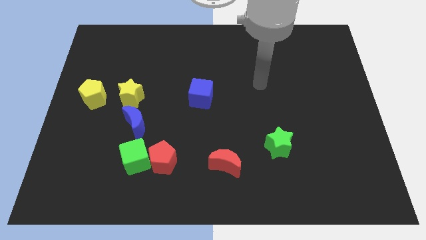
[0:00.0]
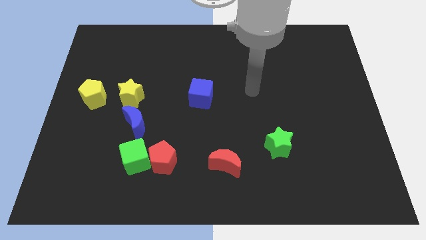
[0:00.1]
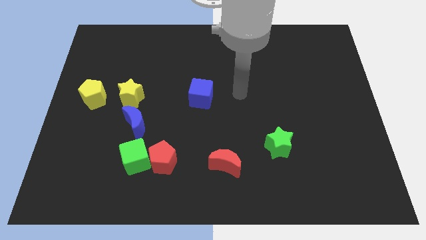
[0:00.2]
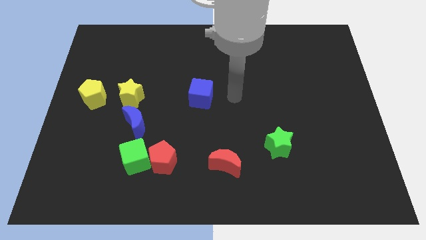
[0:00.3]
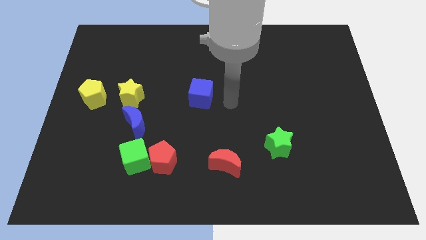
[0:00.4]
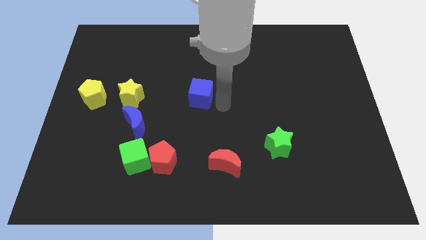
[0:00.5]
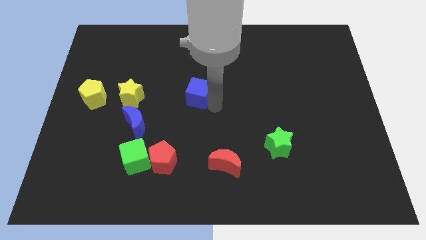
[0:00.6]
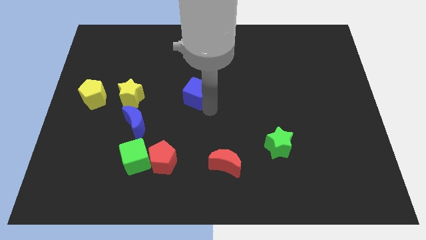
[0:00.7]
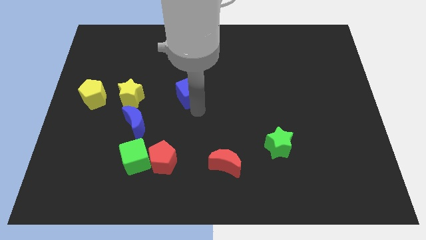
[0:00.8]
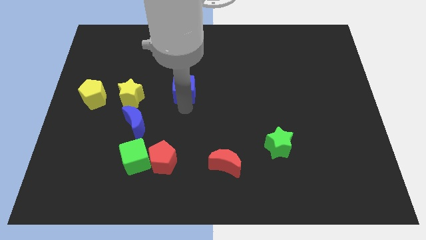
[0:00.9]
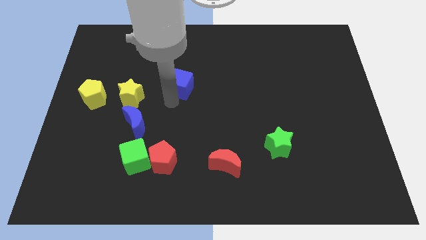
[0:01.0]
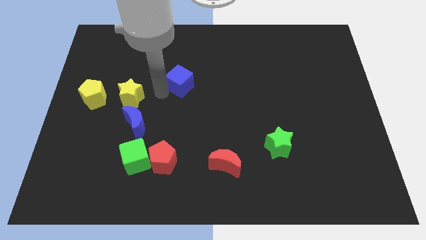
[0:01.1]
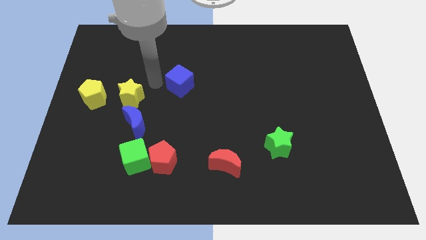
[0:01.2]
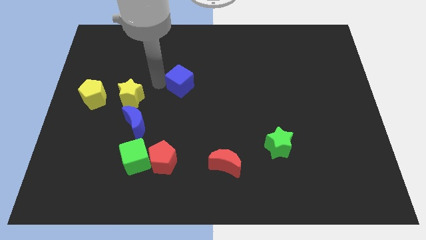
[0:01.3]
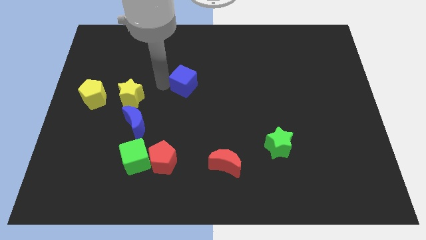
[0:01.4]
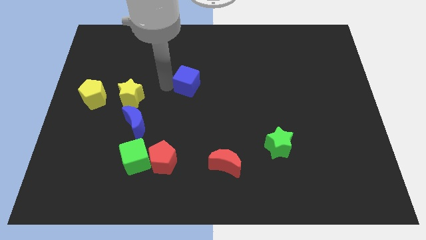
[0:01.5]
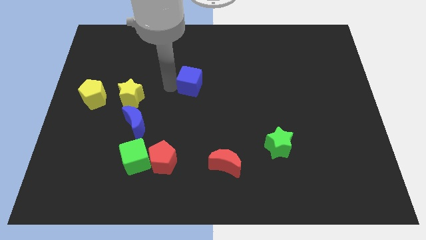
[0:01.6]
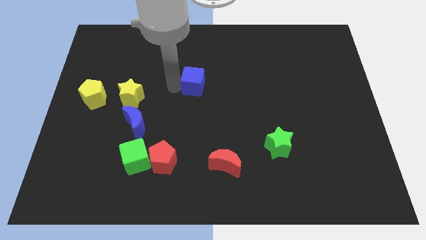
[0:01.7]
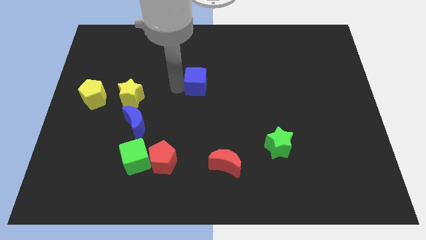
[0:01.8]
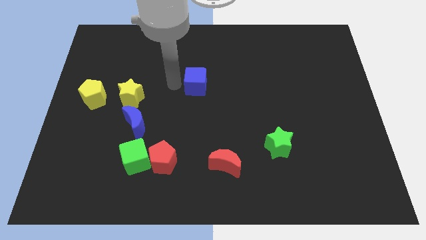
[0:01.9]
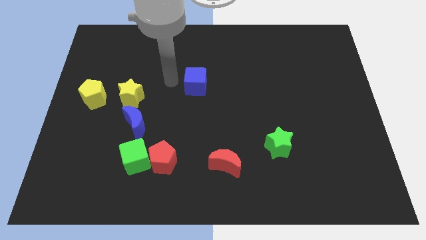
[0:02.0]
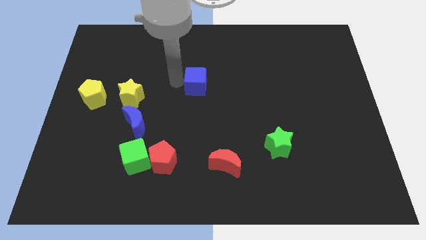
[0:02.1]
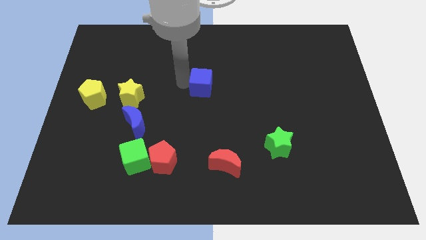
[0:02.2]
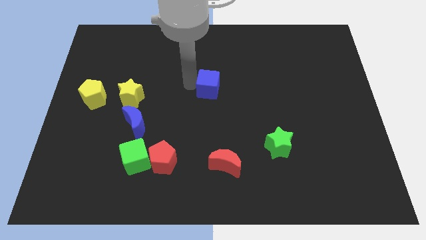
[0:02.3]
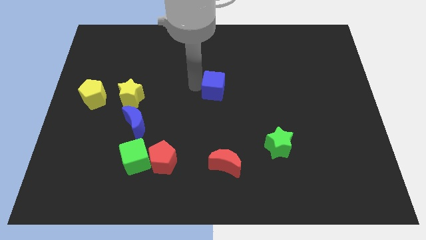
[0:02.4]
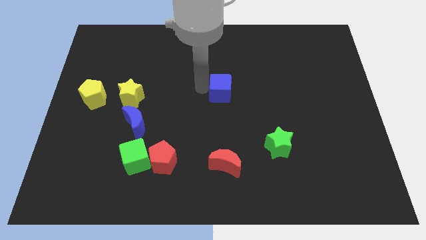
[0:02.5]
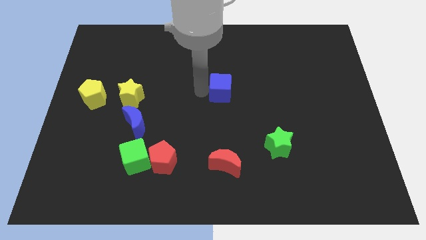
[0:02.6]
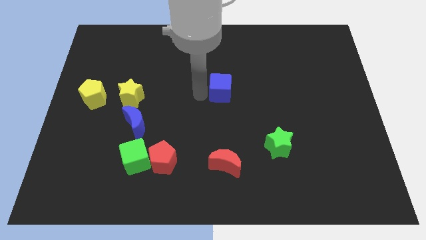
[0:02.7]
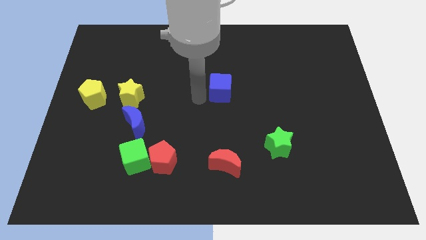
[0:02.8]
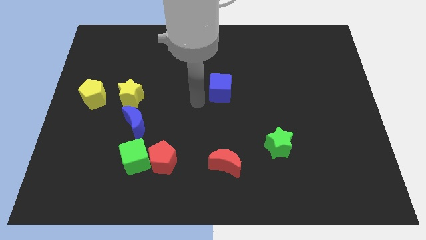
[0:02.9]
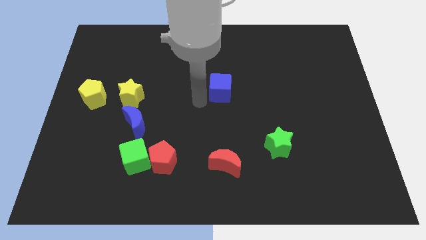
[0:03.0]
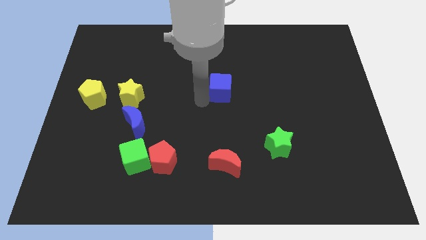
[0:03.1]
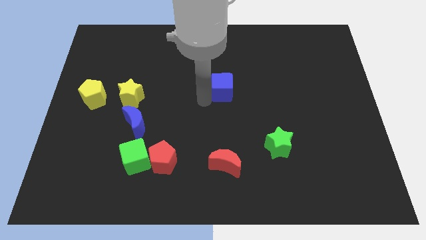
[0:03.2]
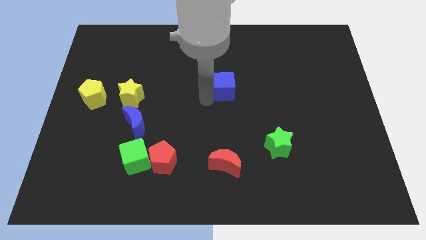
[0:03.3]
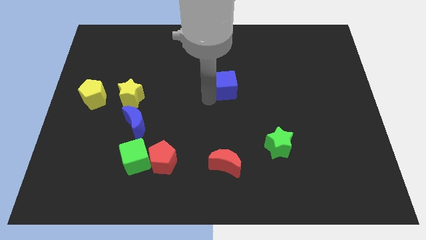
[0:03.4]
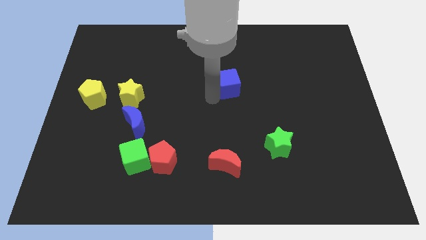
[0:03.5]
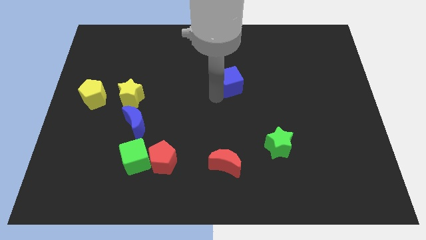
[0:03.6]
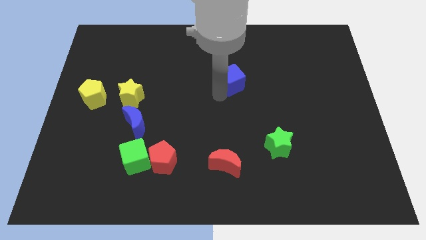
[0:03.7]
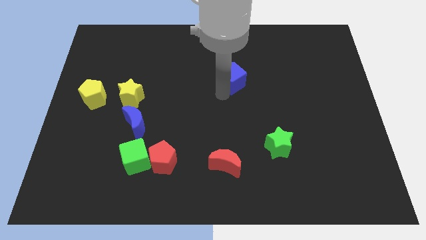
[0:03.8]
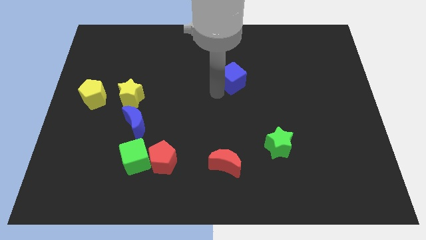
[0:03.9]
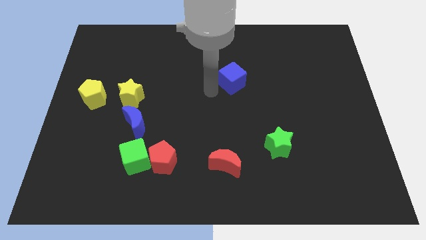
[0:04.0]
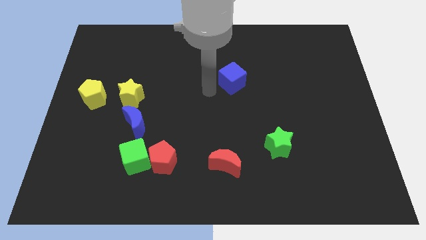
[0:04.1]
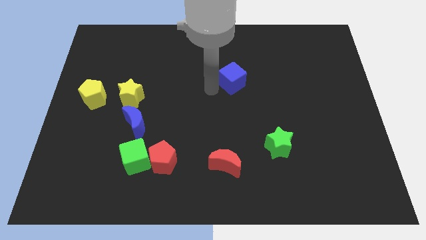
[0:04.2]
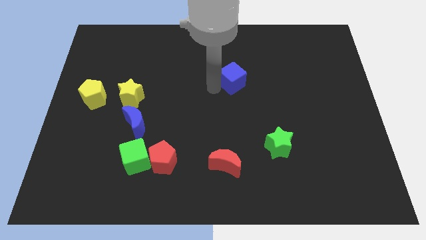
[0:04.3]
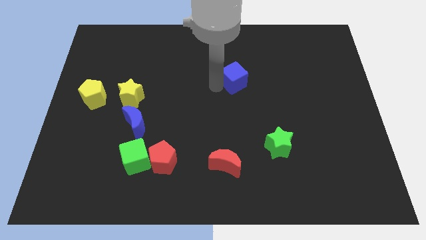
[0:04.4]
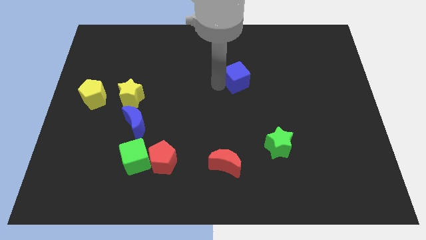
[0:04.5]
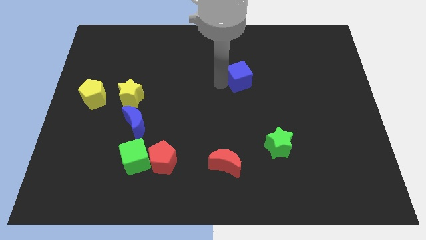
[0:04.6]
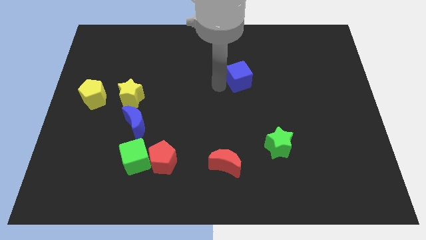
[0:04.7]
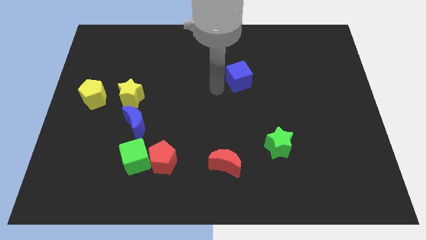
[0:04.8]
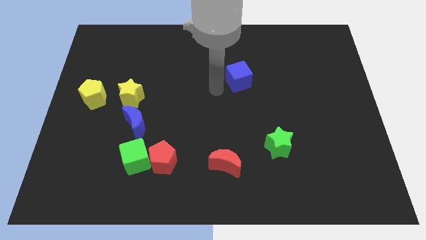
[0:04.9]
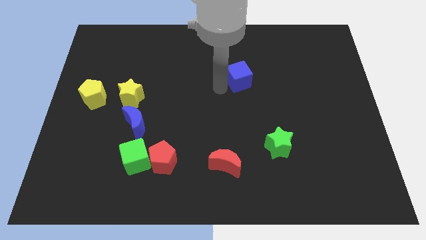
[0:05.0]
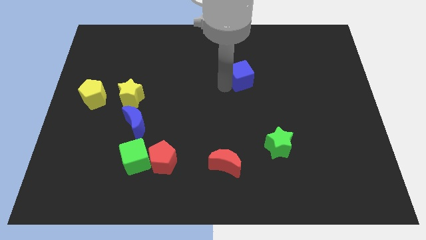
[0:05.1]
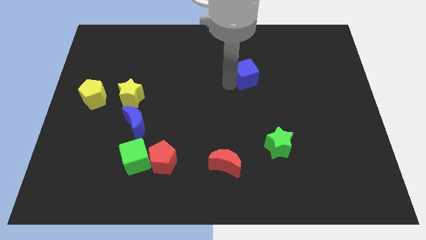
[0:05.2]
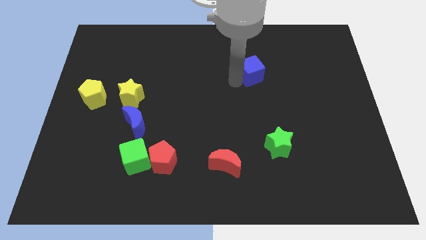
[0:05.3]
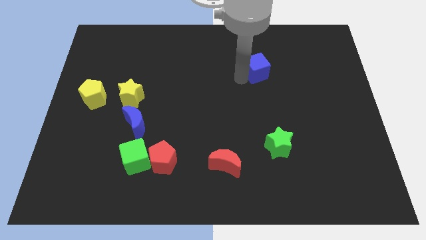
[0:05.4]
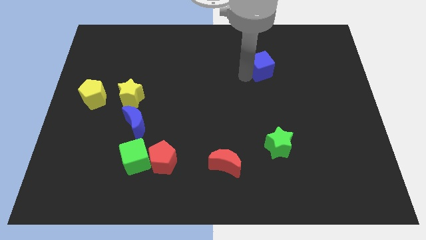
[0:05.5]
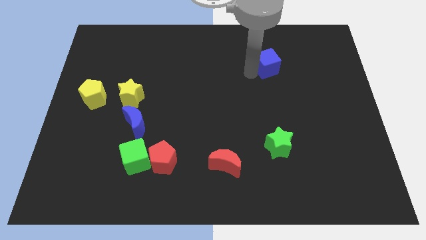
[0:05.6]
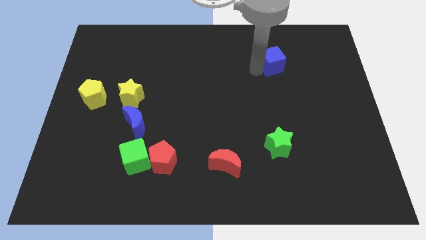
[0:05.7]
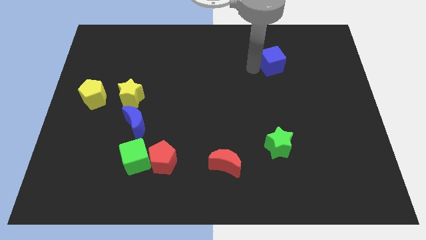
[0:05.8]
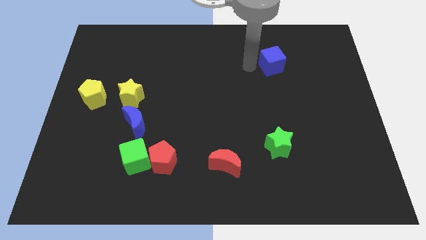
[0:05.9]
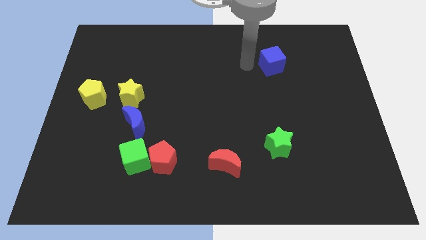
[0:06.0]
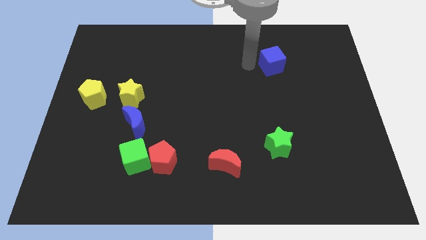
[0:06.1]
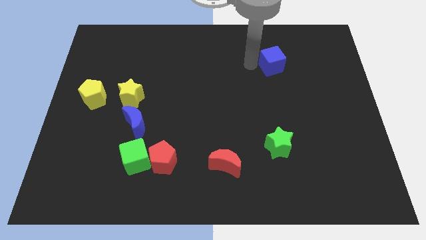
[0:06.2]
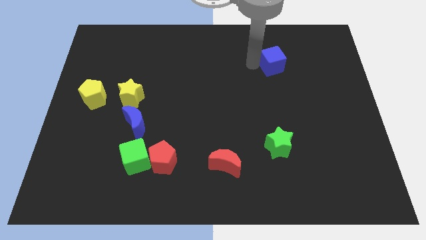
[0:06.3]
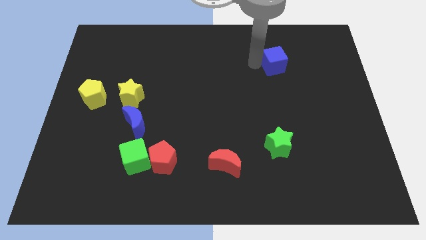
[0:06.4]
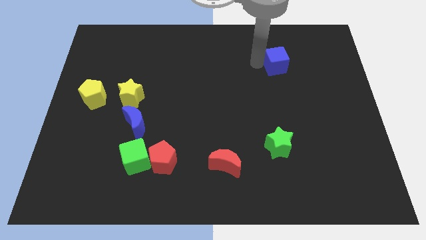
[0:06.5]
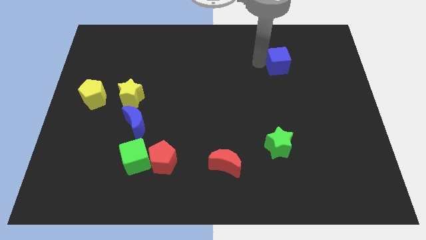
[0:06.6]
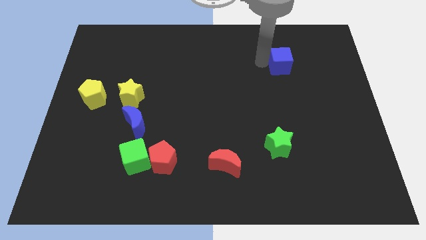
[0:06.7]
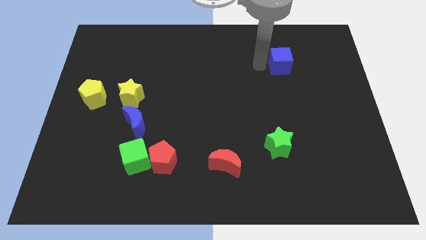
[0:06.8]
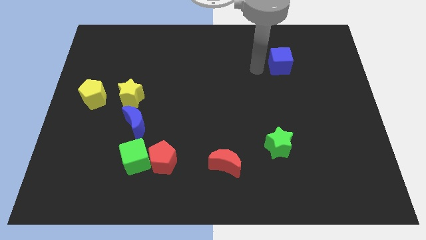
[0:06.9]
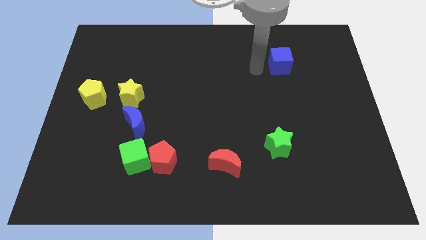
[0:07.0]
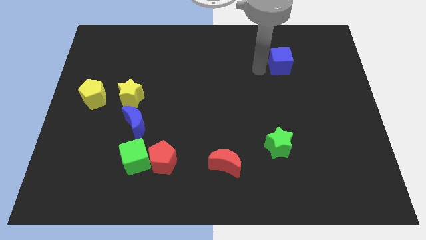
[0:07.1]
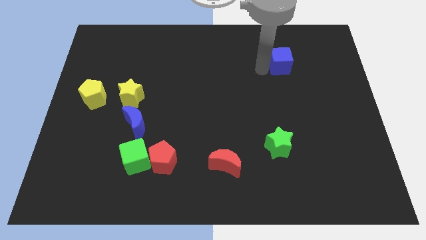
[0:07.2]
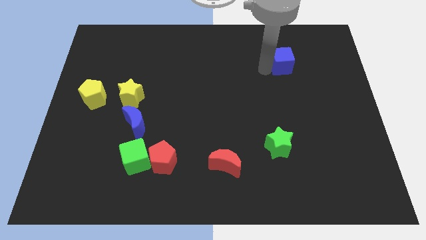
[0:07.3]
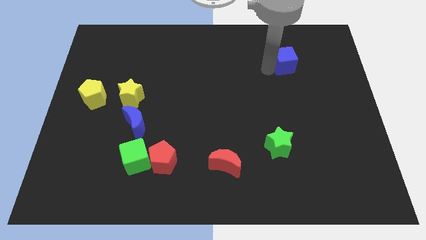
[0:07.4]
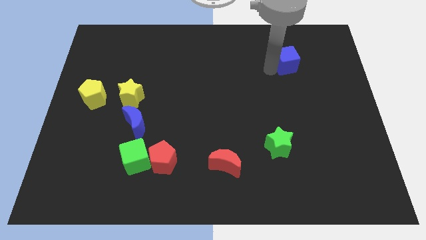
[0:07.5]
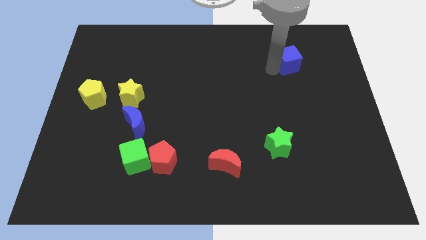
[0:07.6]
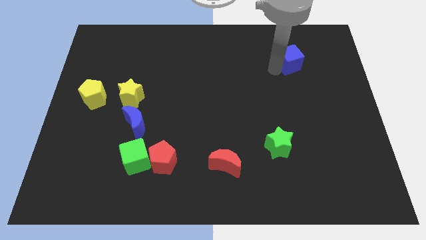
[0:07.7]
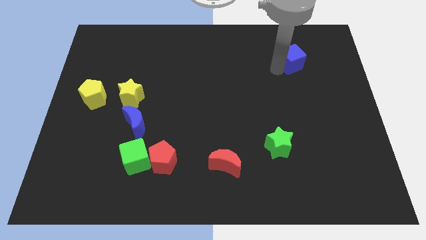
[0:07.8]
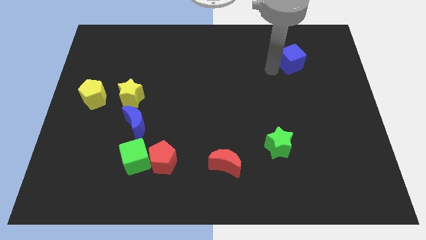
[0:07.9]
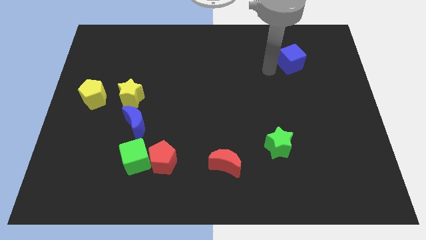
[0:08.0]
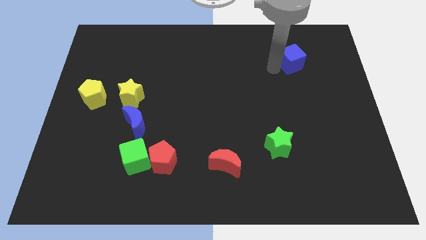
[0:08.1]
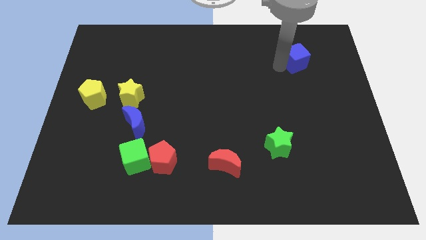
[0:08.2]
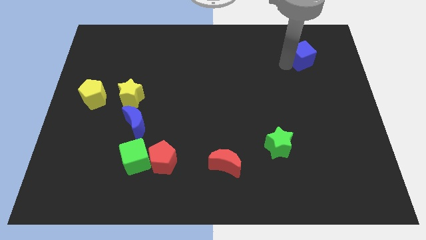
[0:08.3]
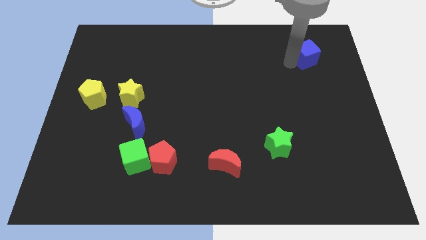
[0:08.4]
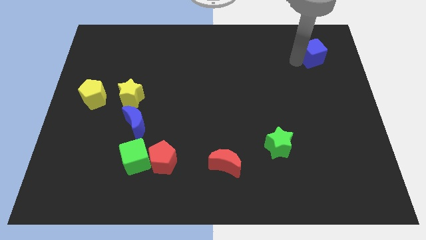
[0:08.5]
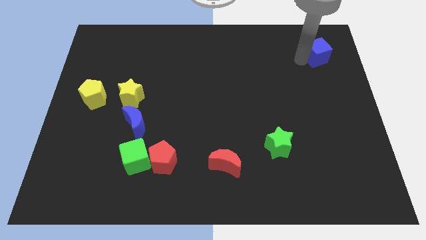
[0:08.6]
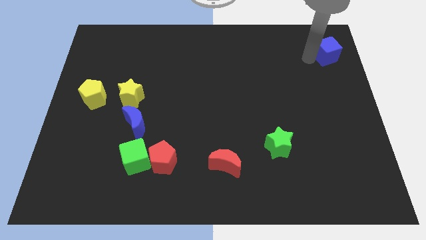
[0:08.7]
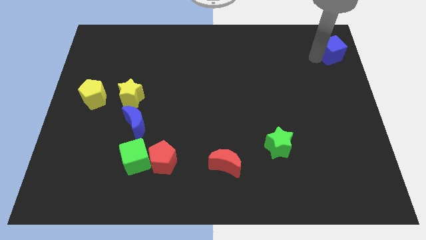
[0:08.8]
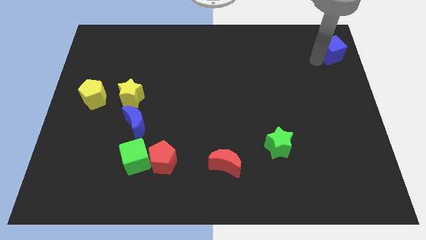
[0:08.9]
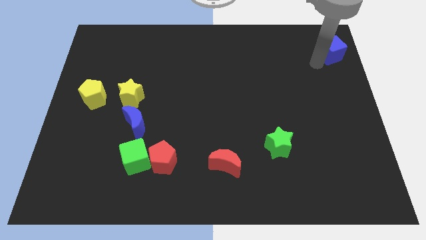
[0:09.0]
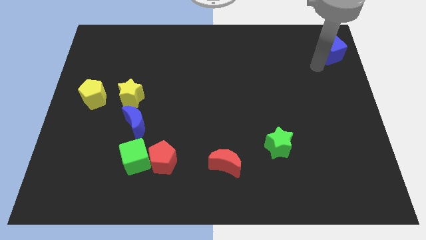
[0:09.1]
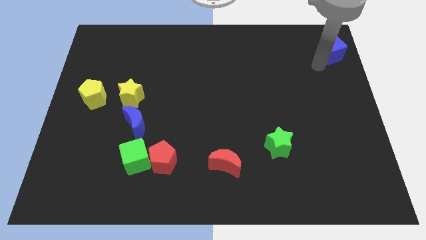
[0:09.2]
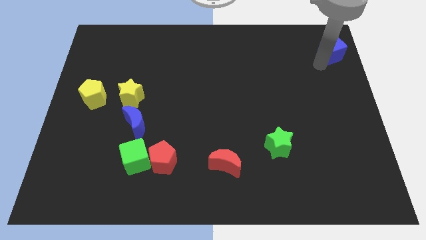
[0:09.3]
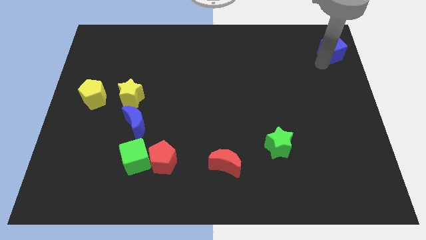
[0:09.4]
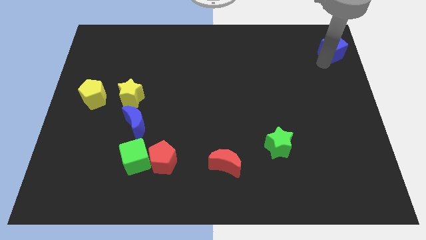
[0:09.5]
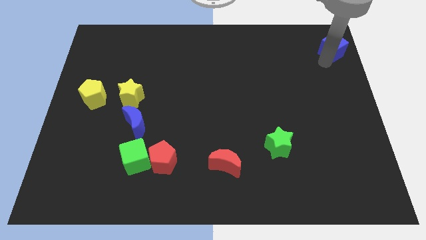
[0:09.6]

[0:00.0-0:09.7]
put the blue cube to the top right corner
